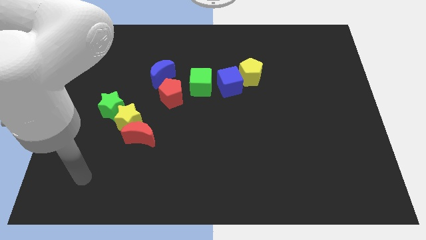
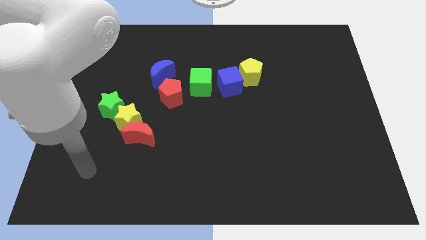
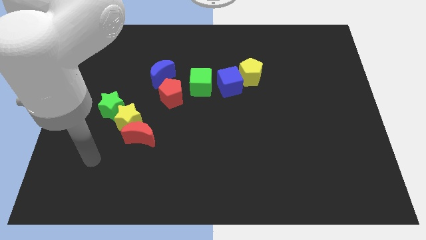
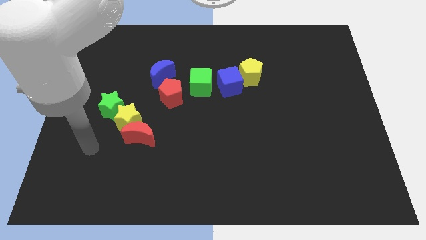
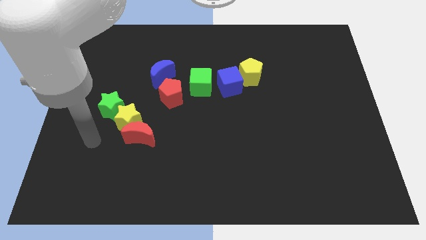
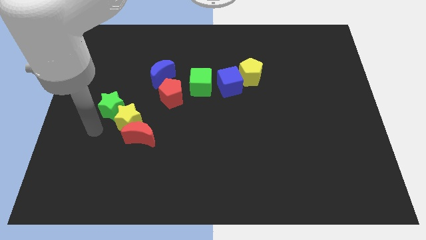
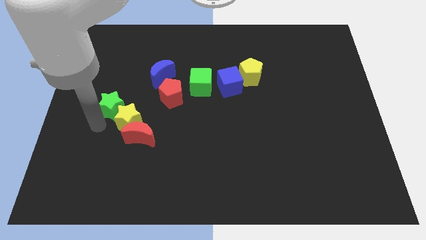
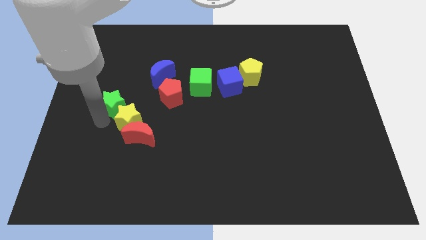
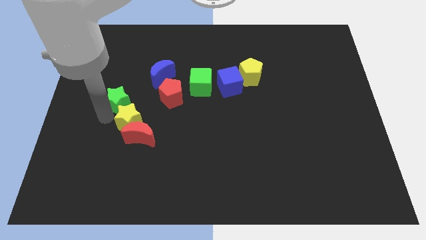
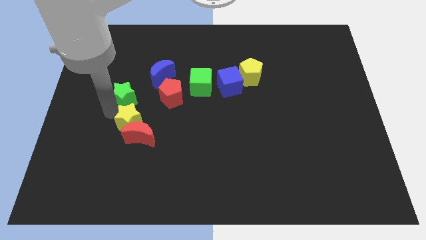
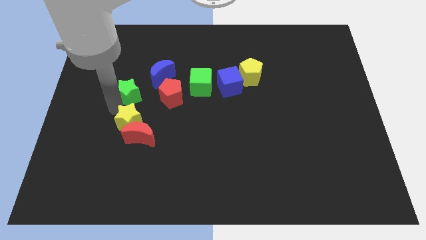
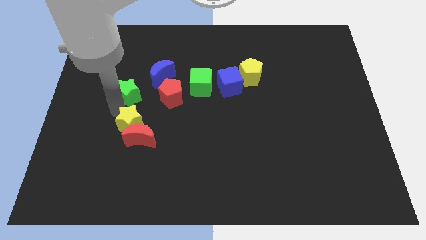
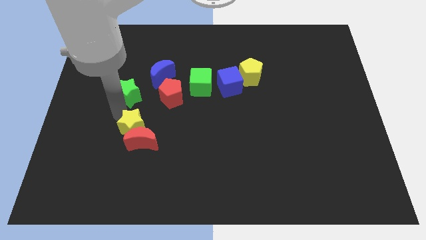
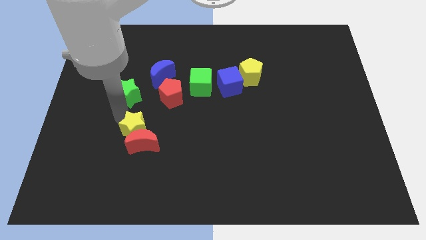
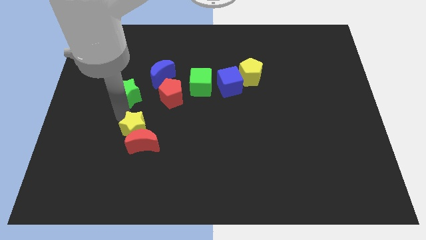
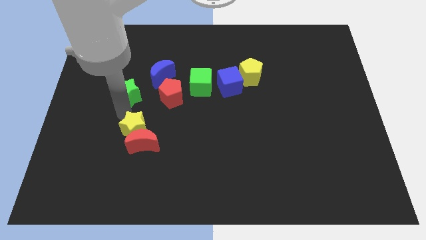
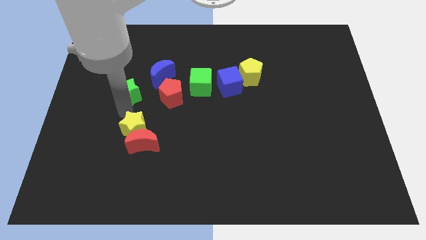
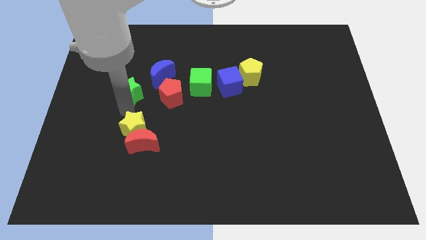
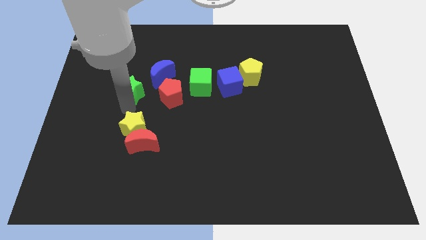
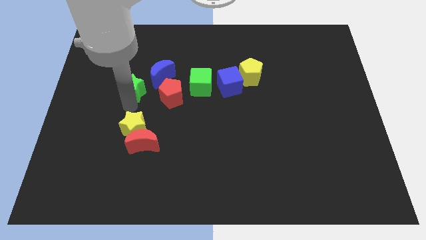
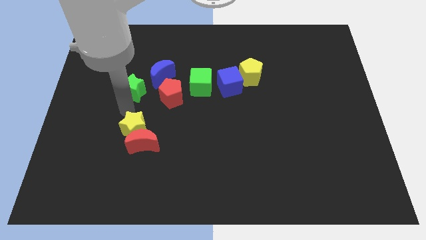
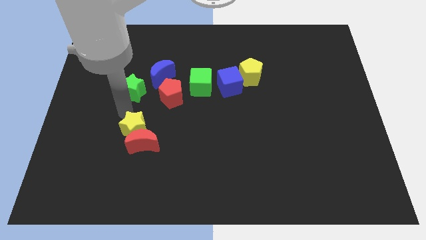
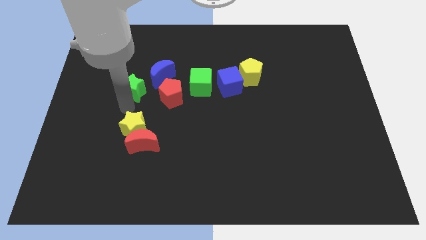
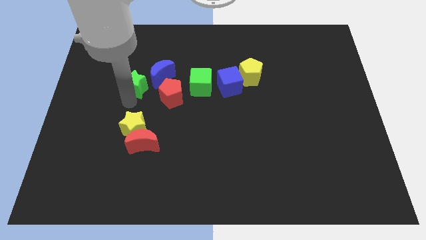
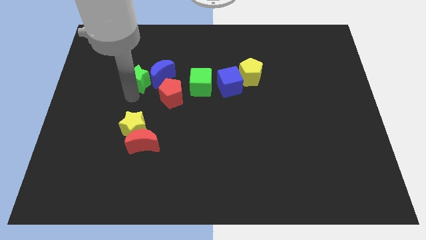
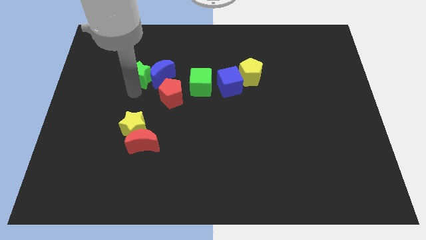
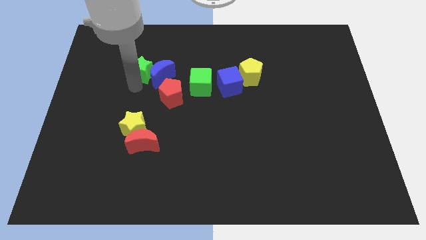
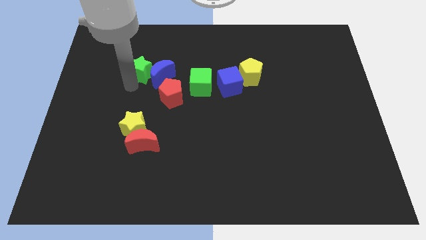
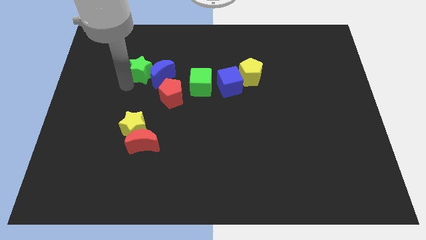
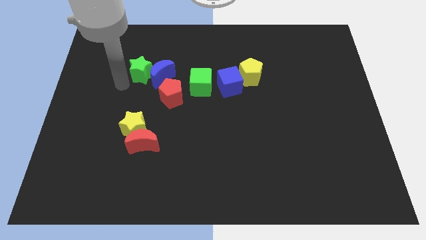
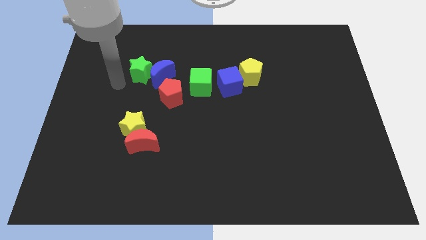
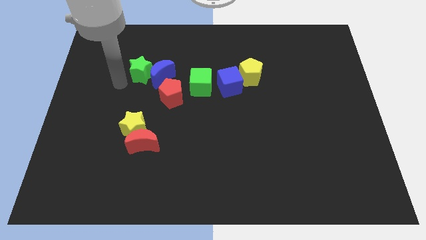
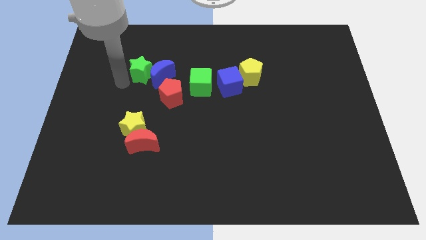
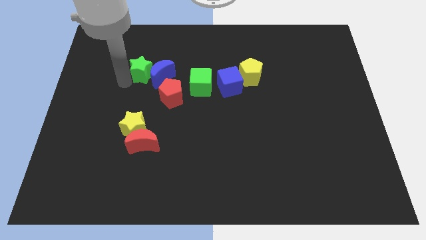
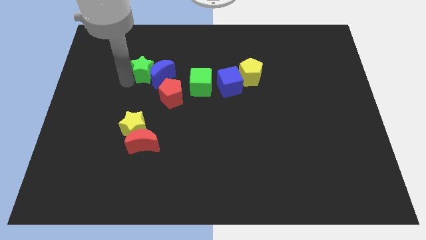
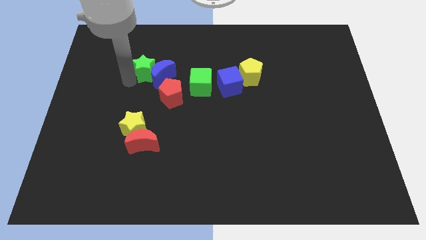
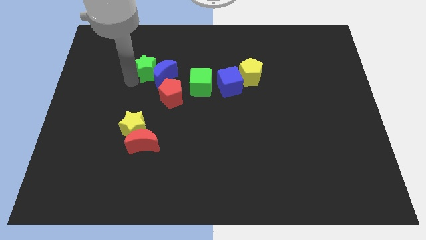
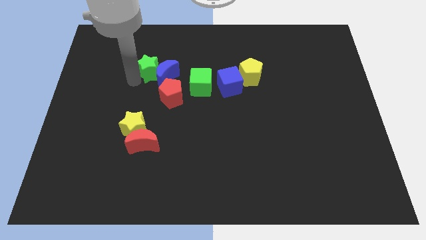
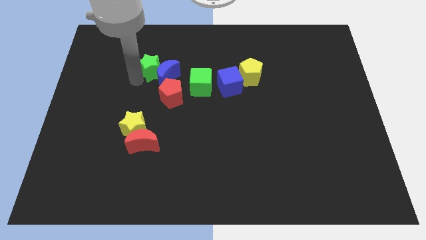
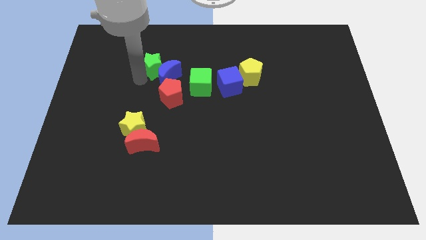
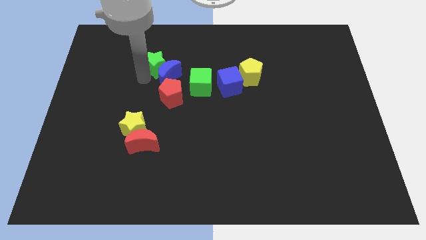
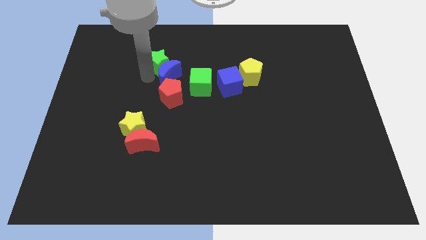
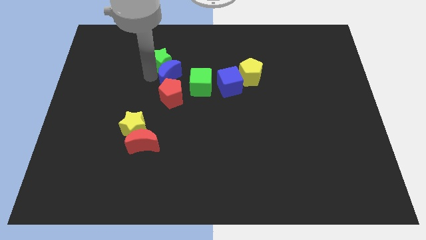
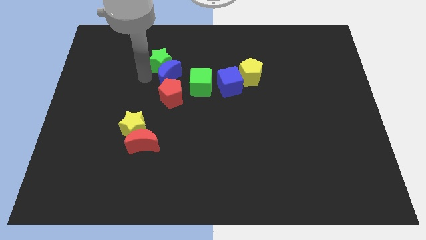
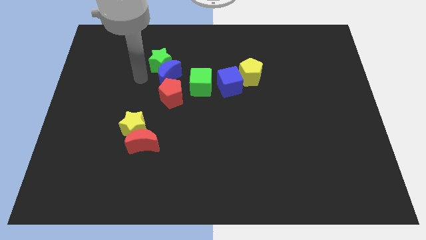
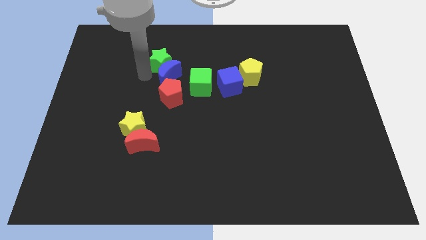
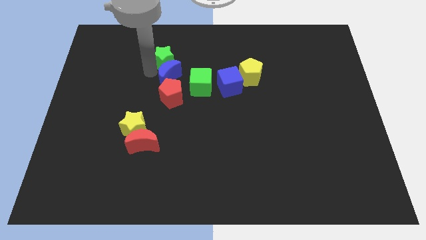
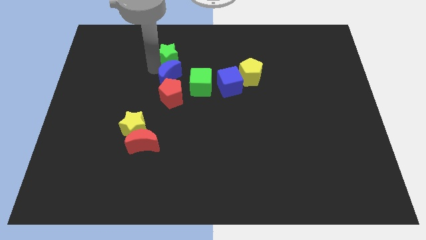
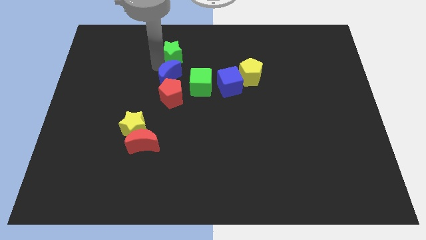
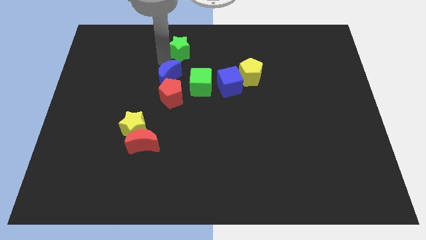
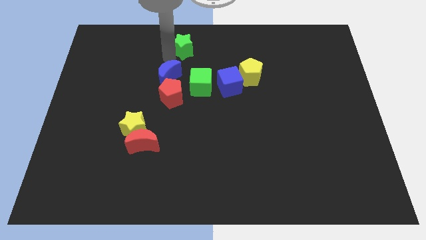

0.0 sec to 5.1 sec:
slide the green star to the top side

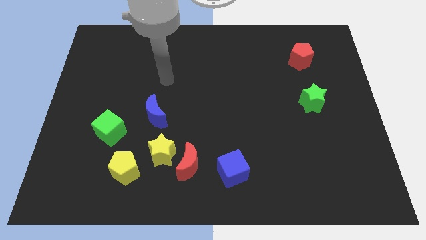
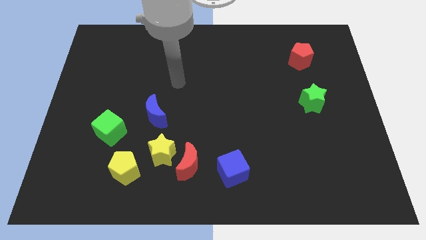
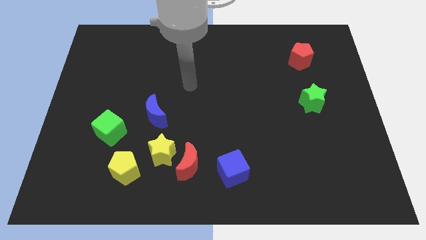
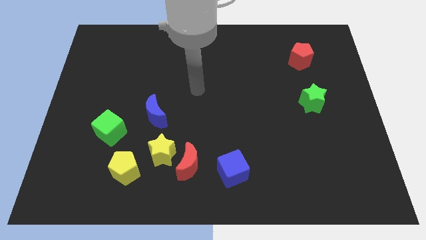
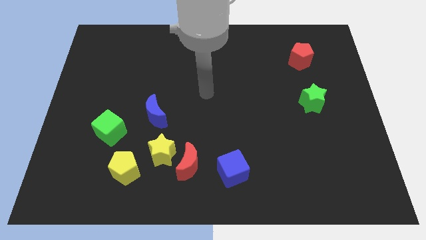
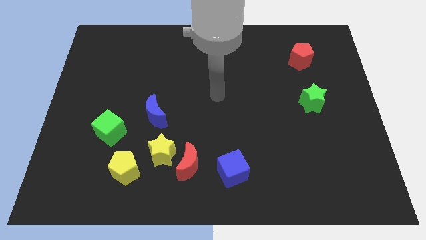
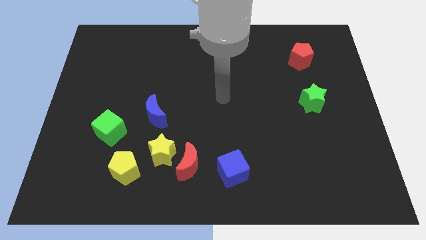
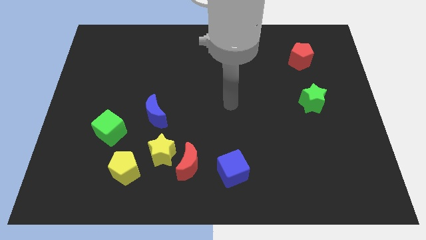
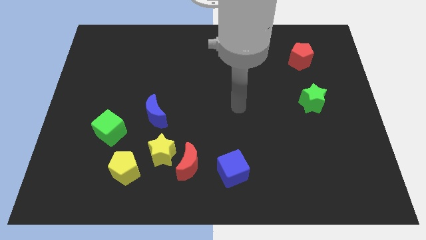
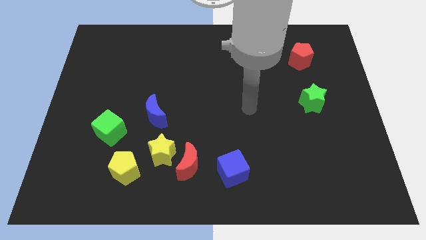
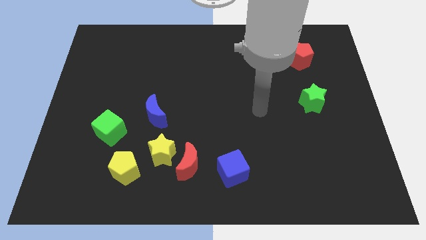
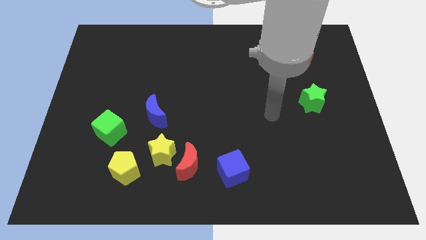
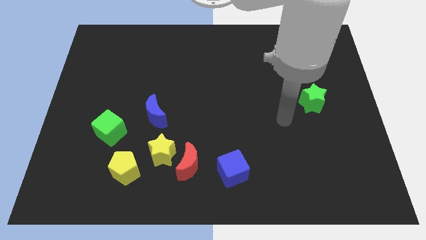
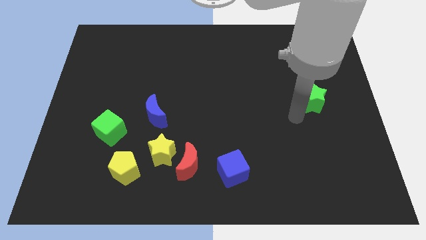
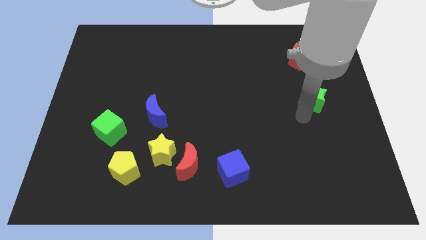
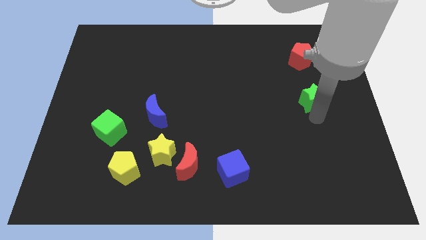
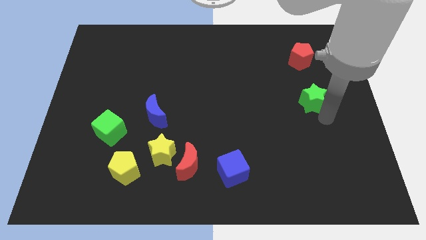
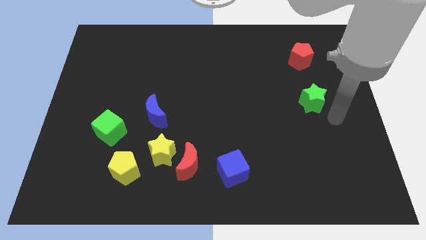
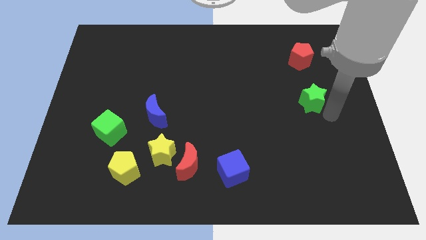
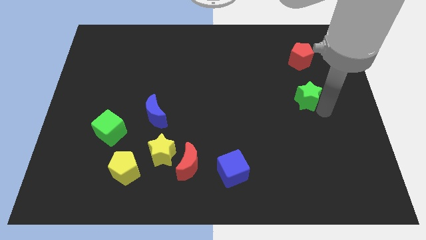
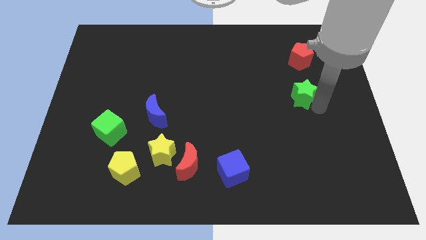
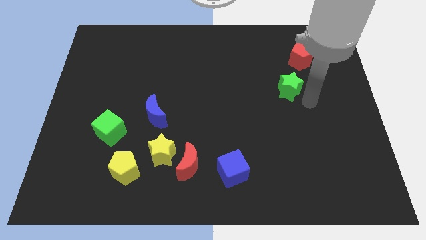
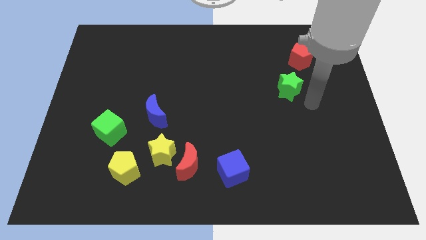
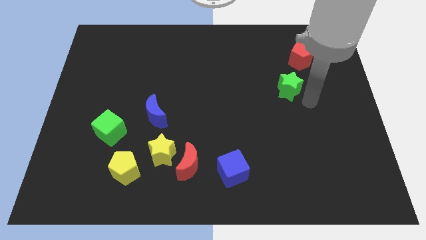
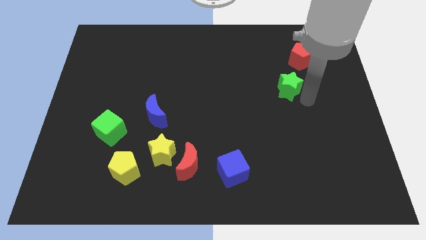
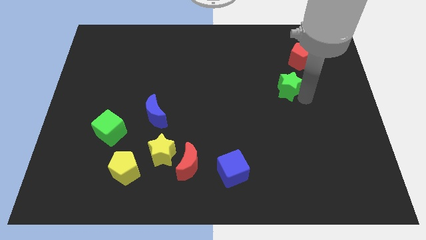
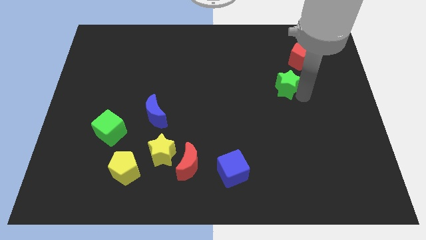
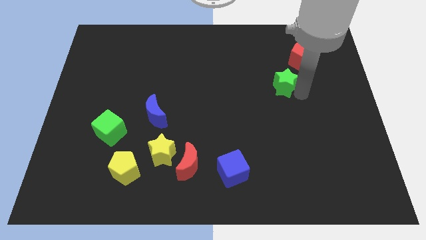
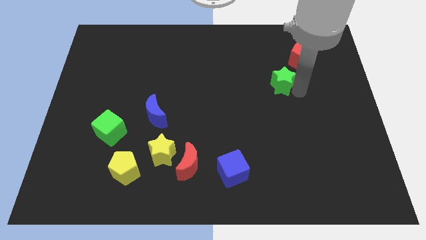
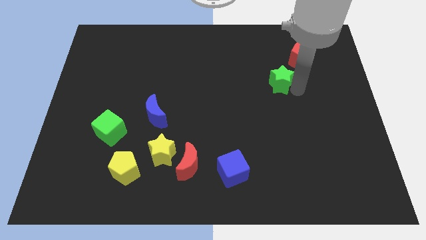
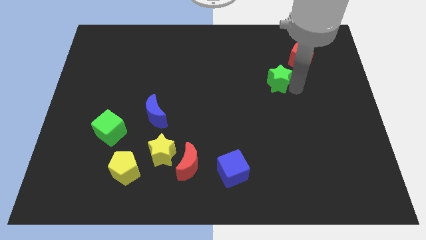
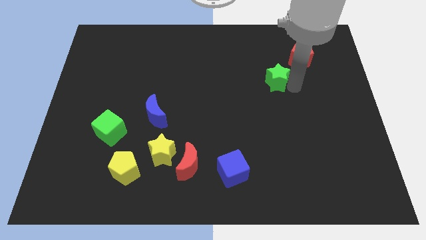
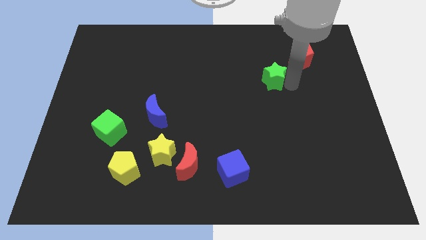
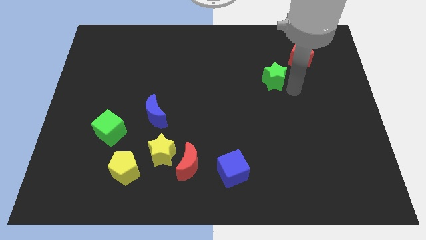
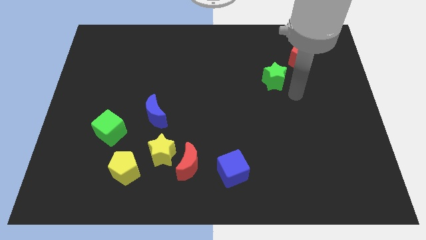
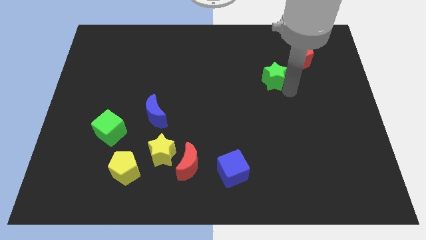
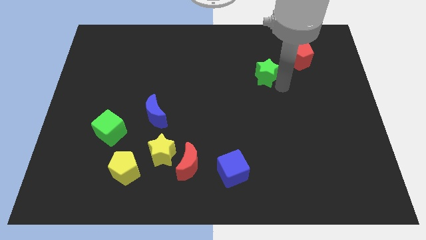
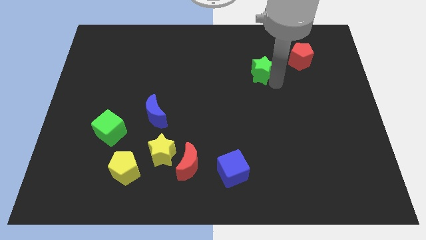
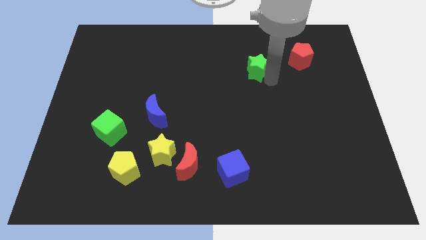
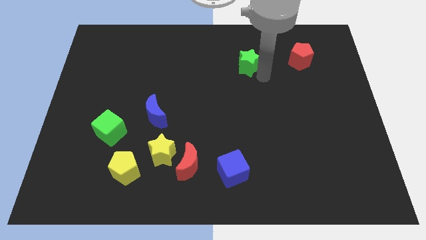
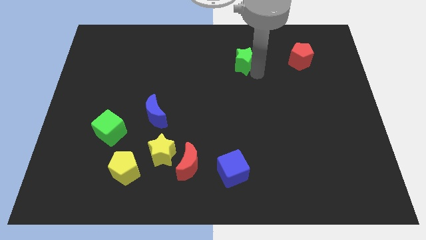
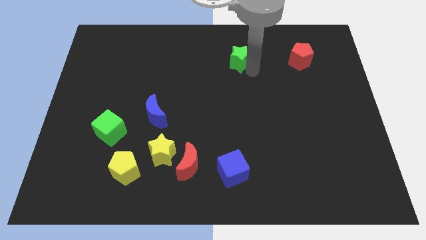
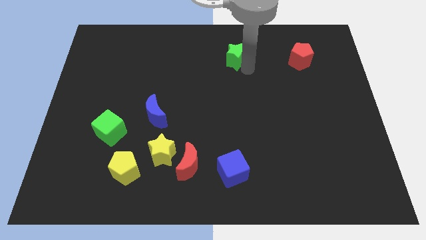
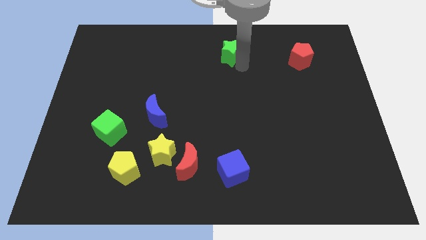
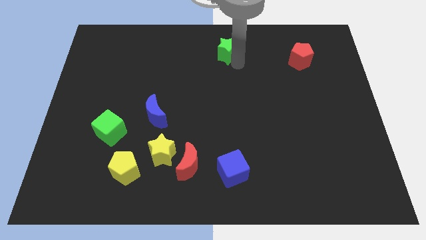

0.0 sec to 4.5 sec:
push the green star to the towards your base
